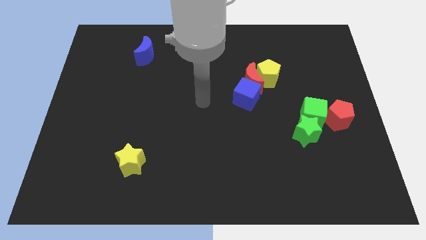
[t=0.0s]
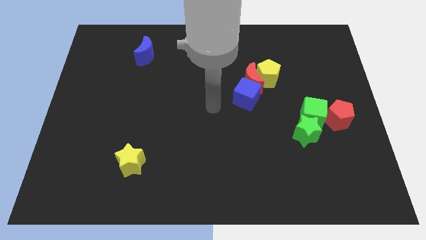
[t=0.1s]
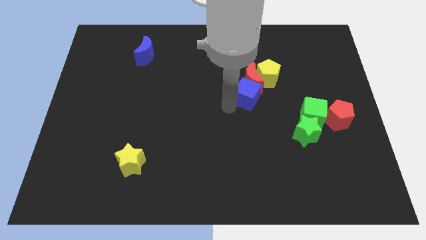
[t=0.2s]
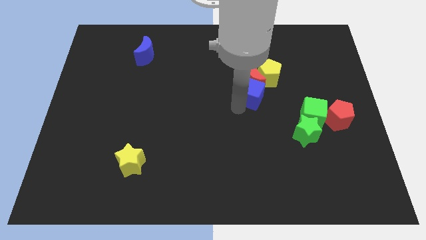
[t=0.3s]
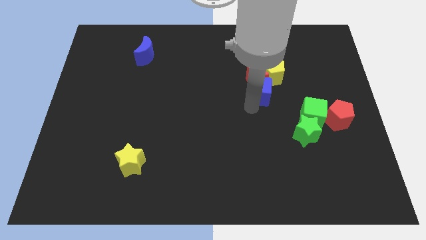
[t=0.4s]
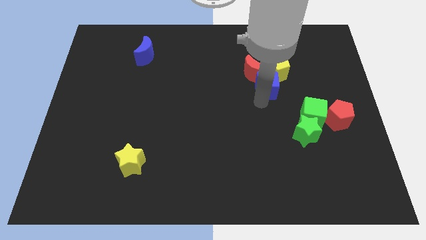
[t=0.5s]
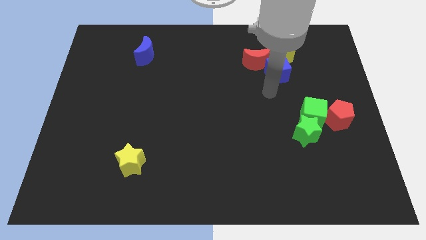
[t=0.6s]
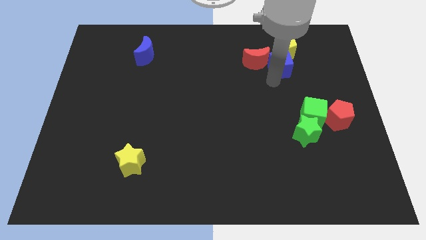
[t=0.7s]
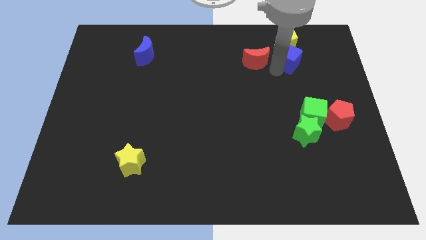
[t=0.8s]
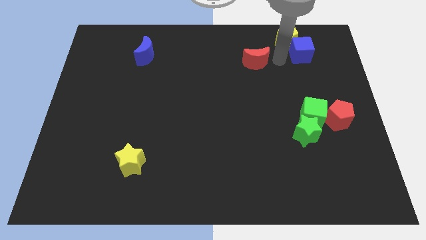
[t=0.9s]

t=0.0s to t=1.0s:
pull the red moon apart from the yellow pentagon and blue cube

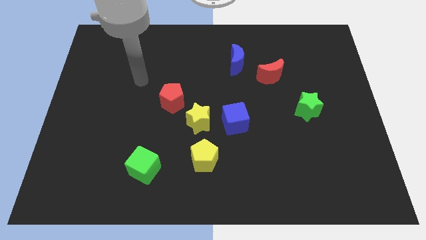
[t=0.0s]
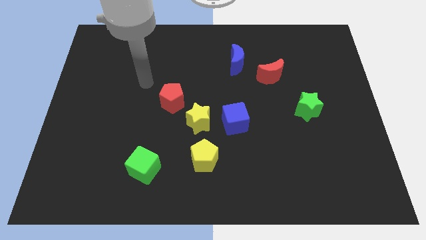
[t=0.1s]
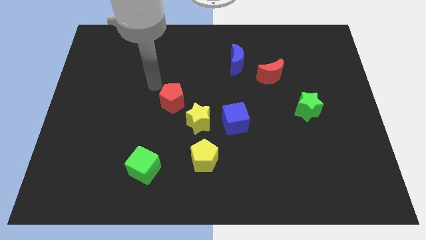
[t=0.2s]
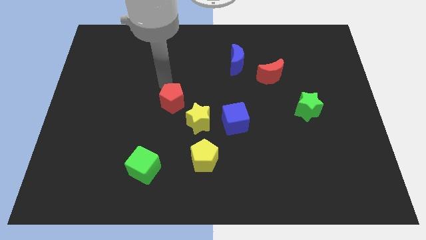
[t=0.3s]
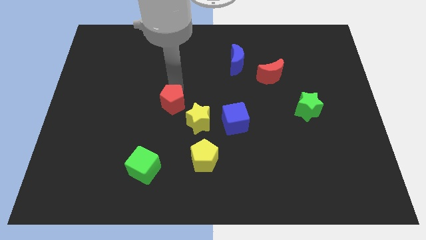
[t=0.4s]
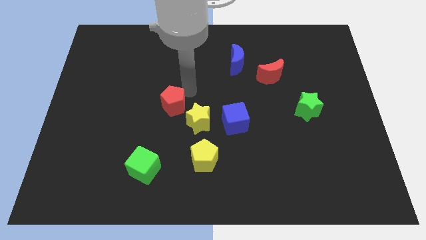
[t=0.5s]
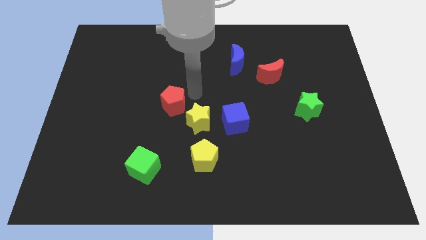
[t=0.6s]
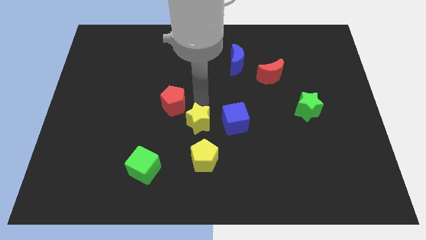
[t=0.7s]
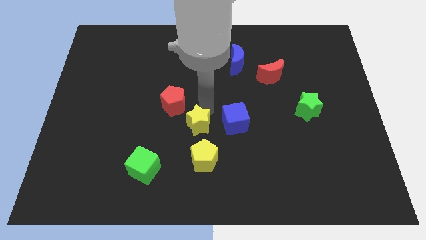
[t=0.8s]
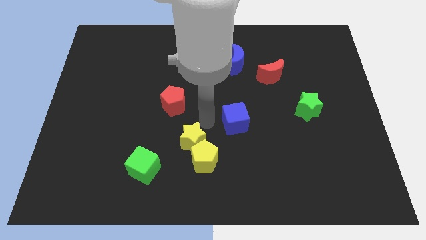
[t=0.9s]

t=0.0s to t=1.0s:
separate the blue cube from the yellow star

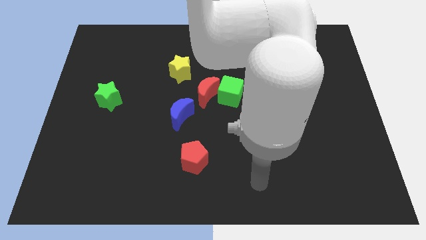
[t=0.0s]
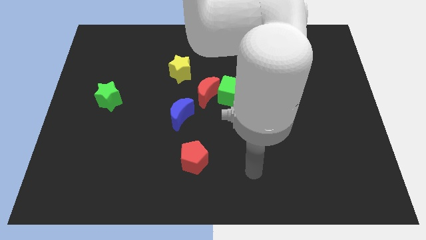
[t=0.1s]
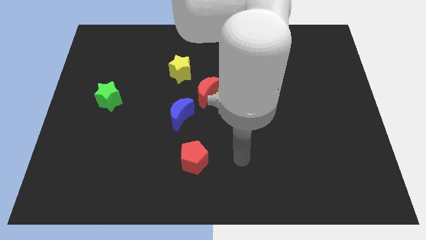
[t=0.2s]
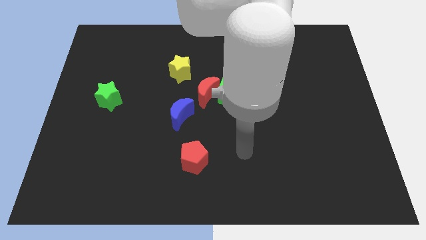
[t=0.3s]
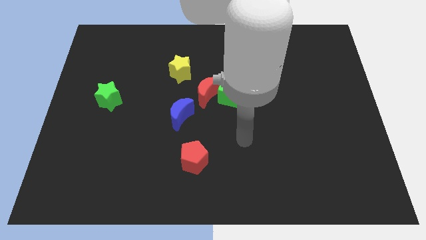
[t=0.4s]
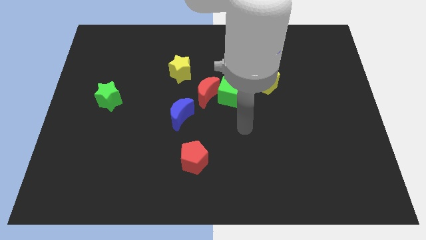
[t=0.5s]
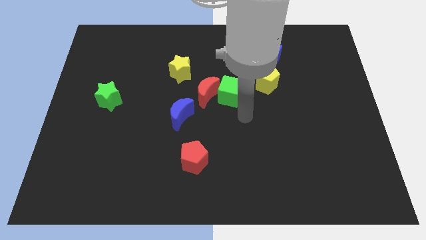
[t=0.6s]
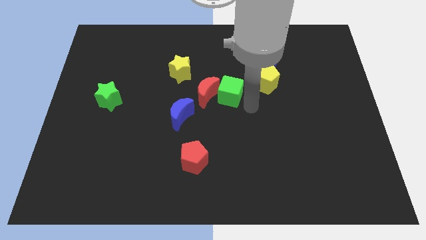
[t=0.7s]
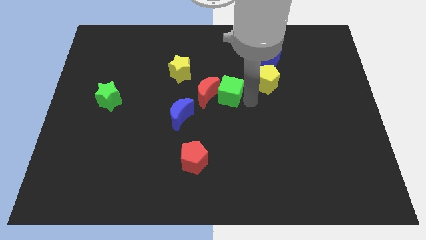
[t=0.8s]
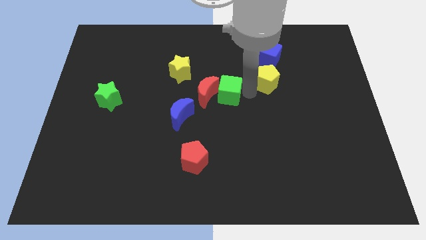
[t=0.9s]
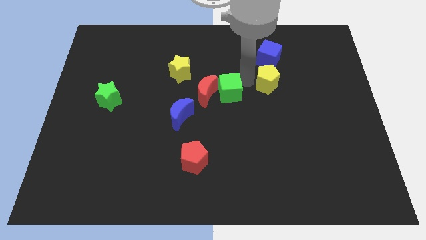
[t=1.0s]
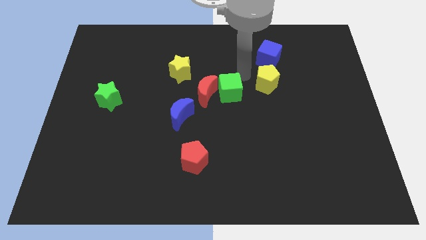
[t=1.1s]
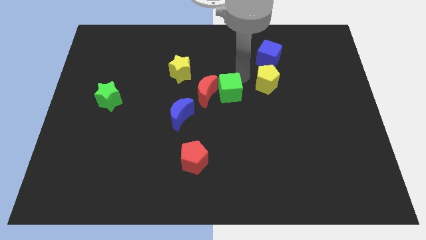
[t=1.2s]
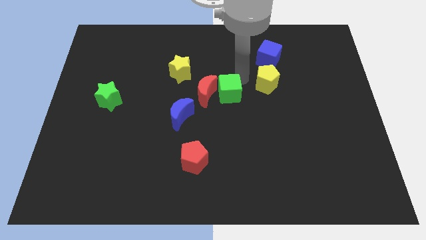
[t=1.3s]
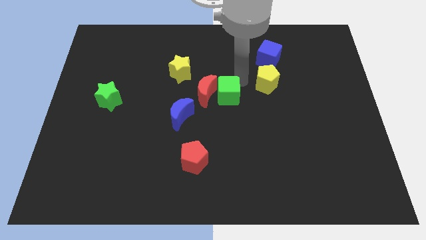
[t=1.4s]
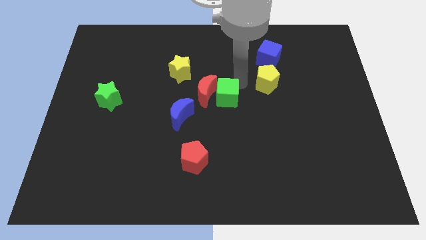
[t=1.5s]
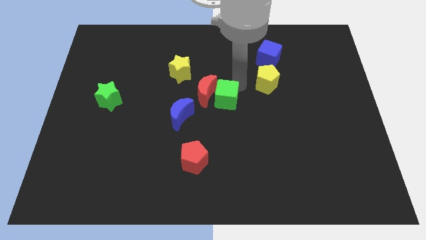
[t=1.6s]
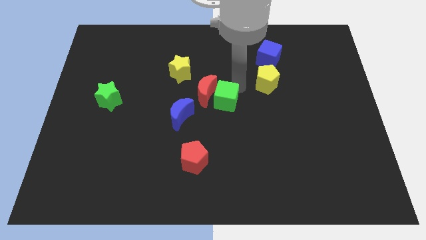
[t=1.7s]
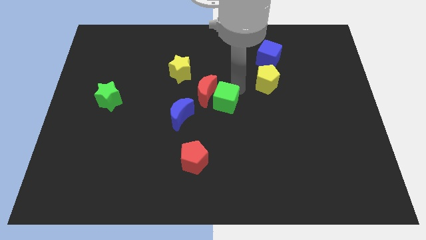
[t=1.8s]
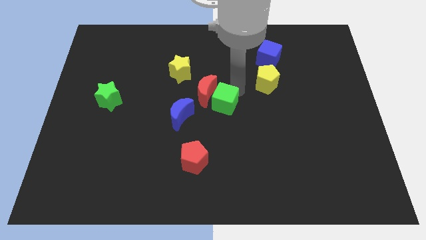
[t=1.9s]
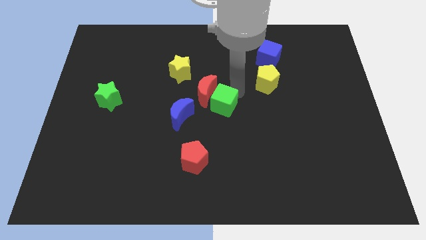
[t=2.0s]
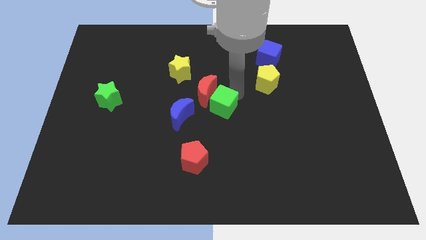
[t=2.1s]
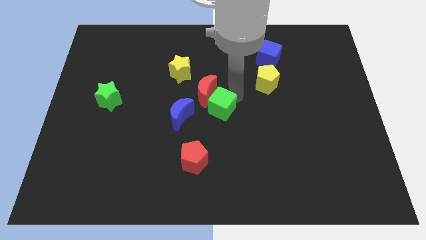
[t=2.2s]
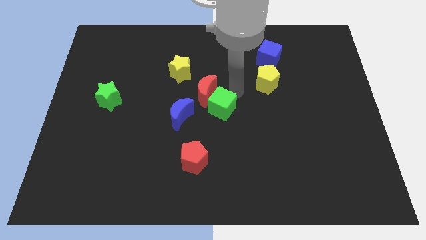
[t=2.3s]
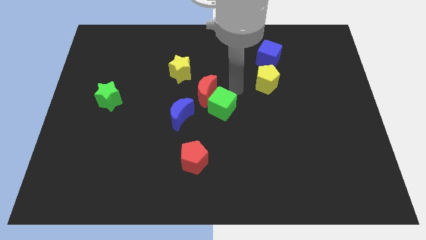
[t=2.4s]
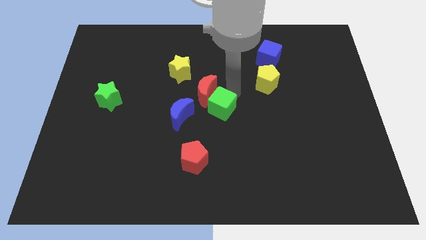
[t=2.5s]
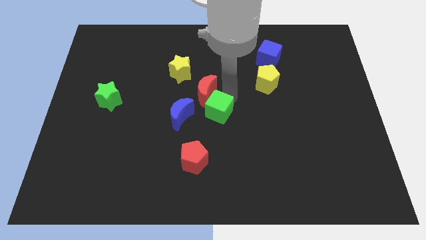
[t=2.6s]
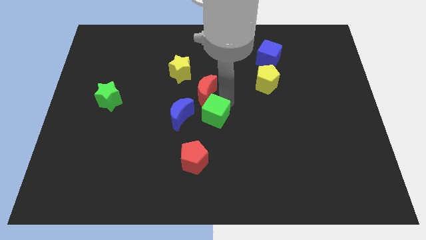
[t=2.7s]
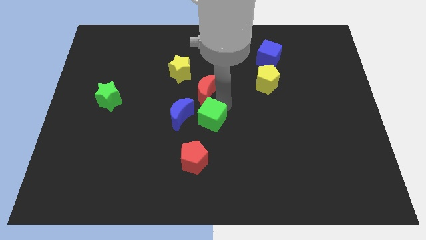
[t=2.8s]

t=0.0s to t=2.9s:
pull the green cube apart from the red moon and yellow pentagon

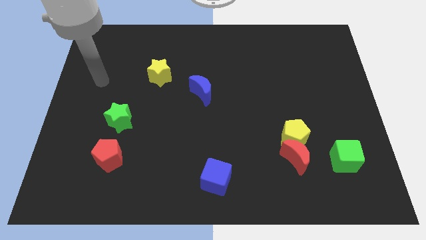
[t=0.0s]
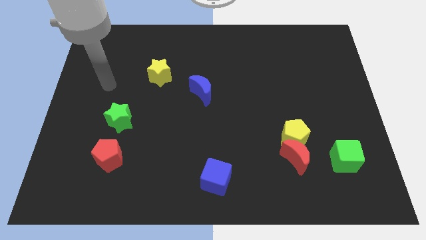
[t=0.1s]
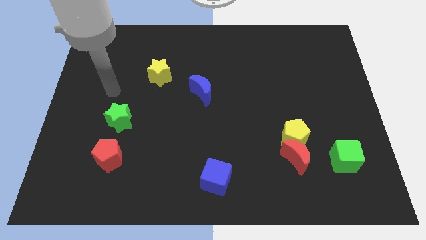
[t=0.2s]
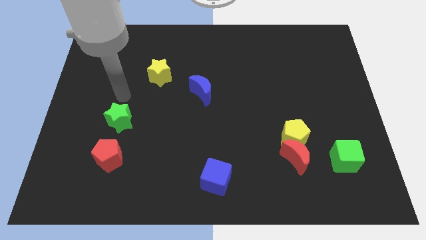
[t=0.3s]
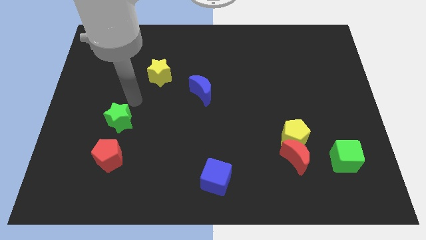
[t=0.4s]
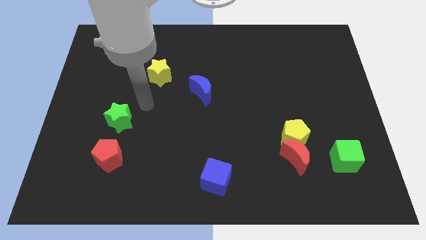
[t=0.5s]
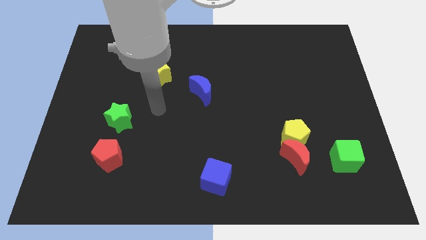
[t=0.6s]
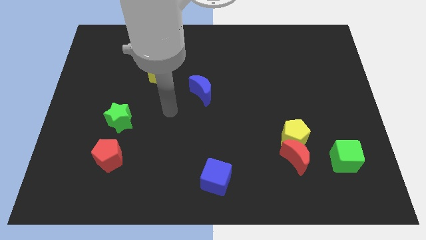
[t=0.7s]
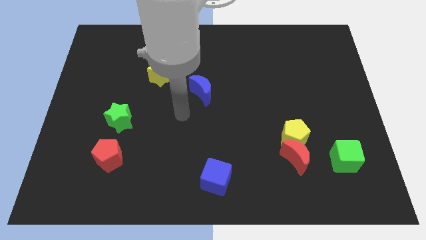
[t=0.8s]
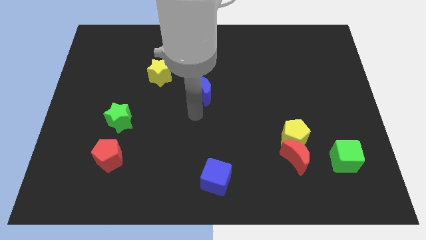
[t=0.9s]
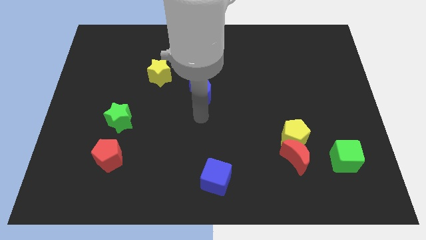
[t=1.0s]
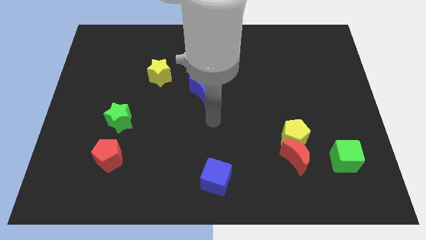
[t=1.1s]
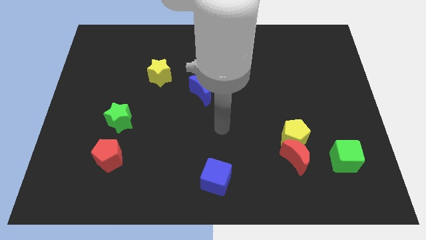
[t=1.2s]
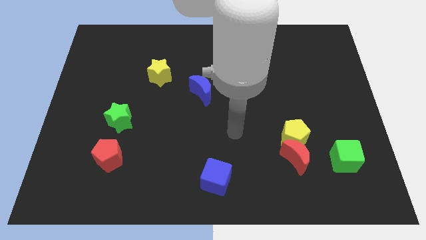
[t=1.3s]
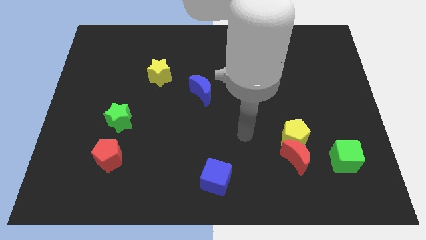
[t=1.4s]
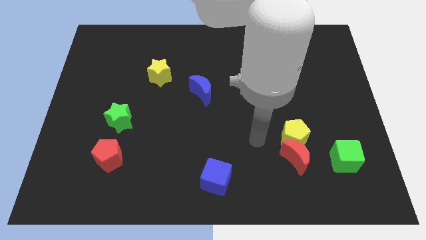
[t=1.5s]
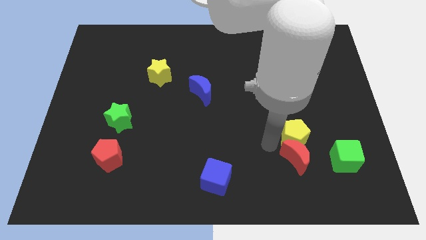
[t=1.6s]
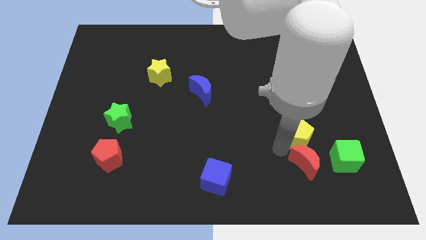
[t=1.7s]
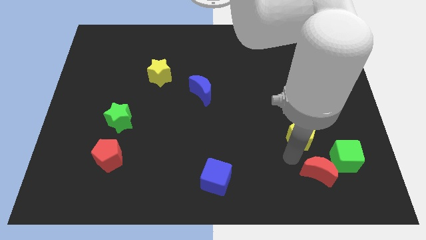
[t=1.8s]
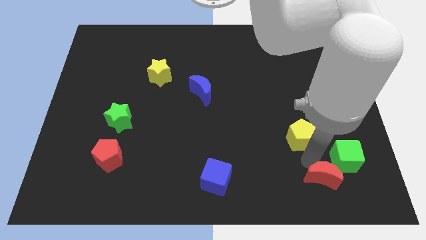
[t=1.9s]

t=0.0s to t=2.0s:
move the yellow pentagon away from the red moon

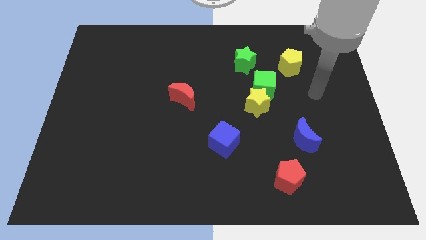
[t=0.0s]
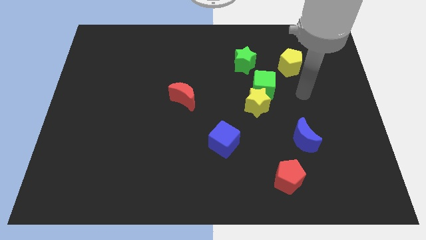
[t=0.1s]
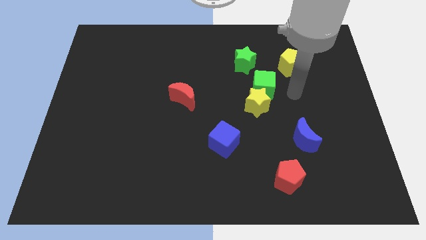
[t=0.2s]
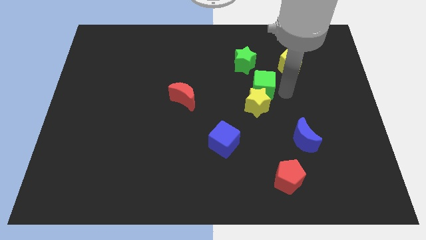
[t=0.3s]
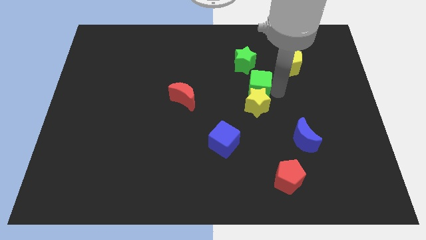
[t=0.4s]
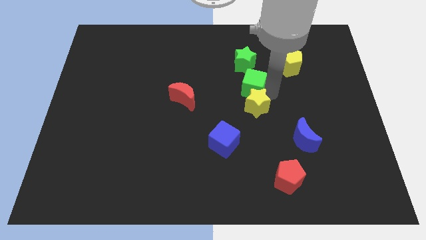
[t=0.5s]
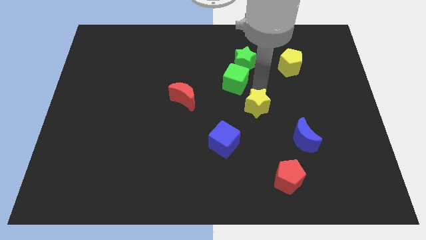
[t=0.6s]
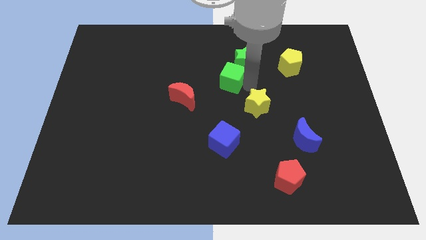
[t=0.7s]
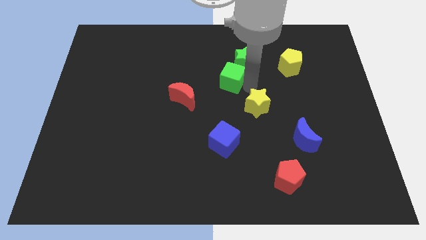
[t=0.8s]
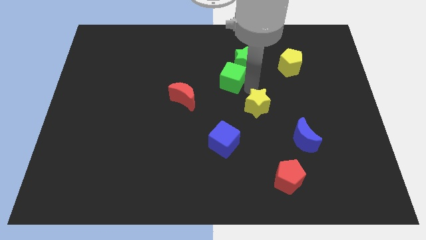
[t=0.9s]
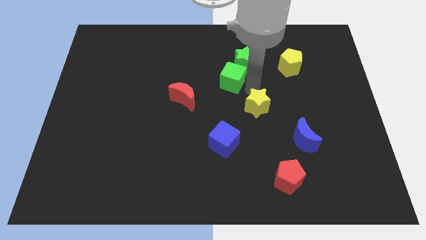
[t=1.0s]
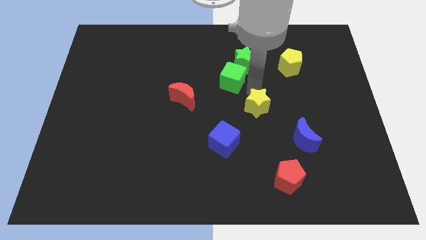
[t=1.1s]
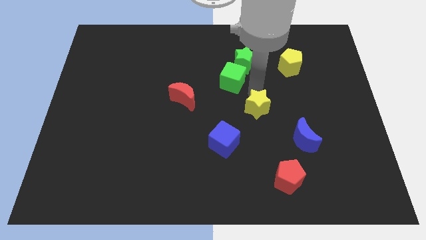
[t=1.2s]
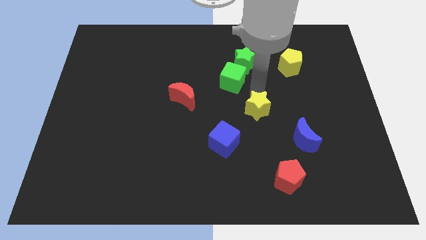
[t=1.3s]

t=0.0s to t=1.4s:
separate the yellow star from the green cube

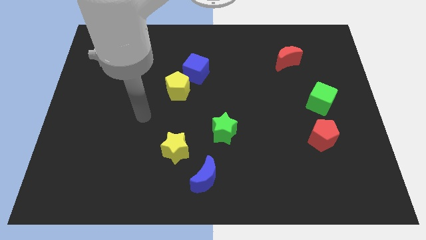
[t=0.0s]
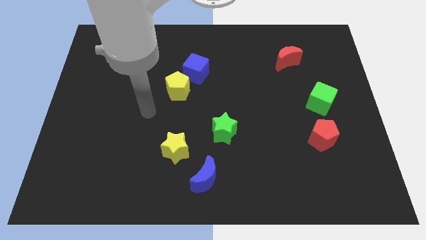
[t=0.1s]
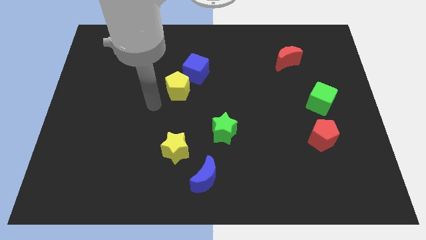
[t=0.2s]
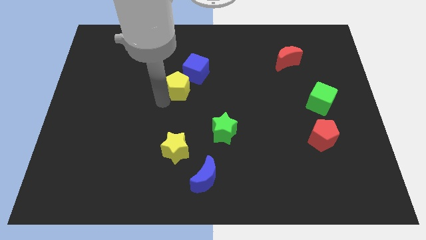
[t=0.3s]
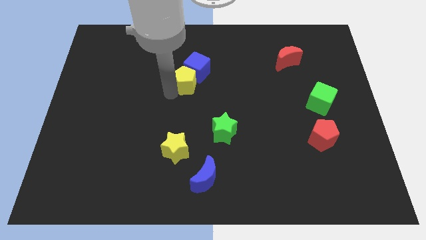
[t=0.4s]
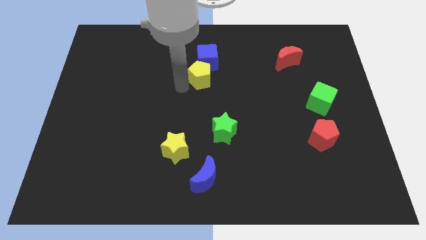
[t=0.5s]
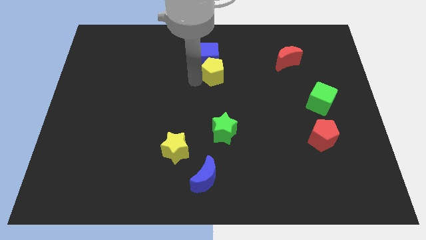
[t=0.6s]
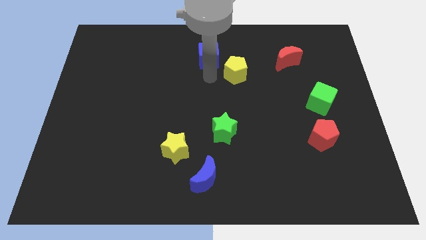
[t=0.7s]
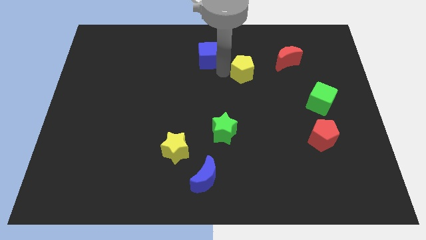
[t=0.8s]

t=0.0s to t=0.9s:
move the blue cube away from the yellow pentagon

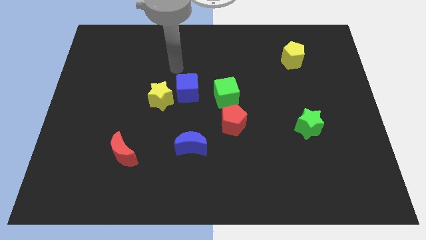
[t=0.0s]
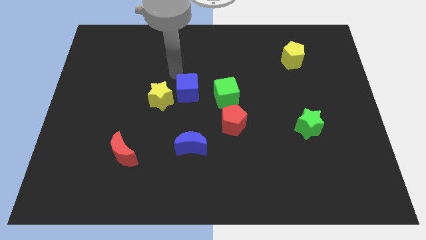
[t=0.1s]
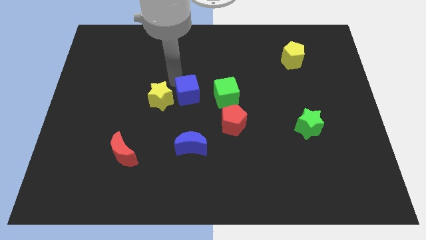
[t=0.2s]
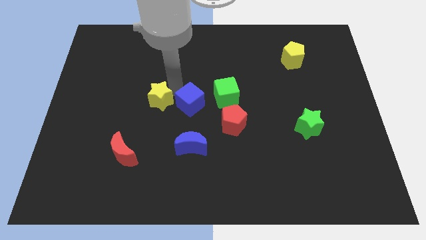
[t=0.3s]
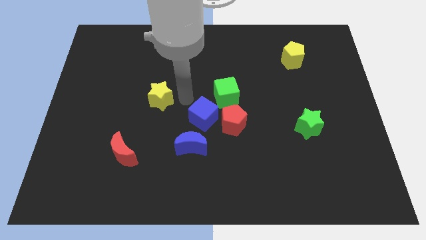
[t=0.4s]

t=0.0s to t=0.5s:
move the yellow star away from the blue cube
